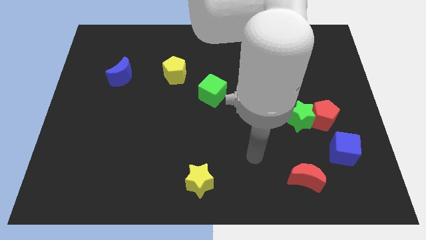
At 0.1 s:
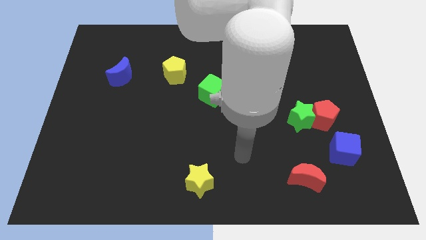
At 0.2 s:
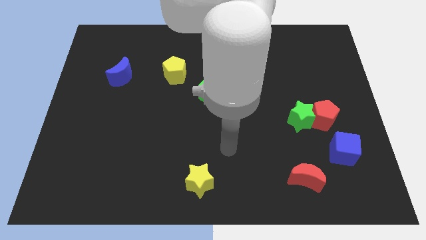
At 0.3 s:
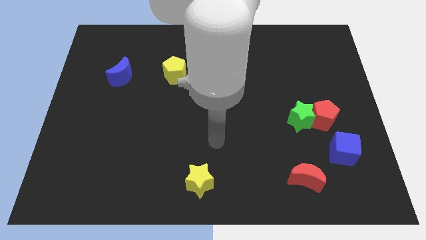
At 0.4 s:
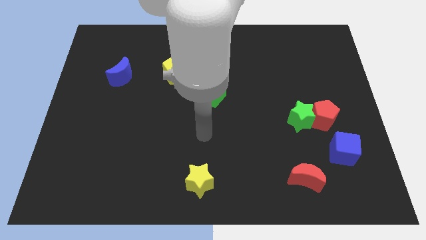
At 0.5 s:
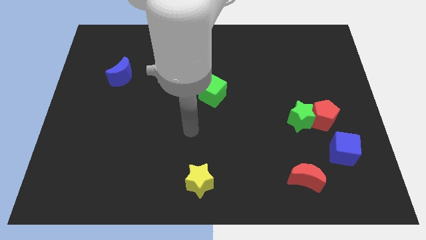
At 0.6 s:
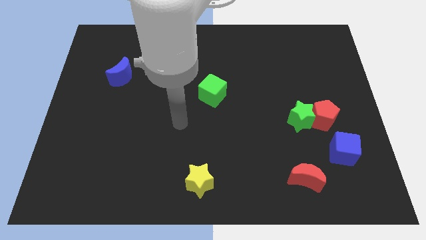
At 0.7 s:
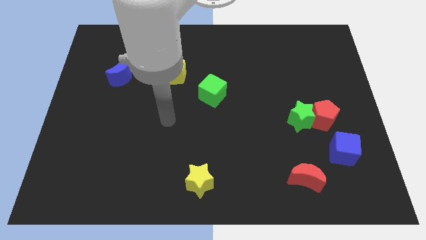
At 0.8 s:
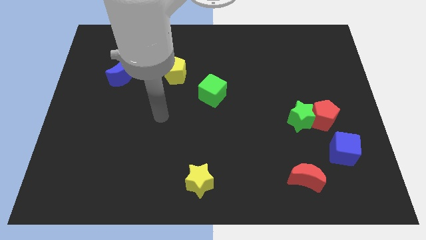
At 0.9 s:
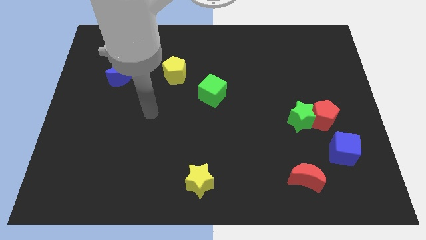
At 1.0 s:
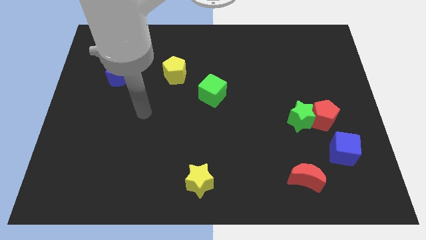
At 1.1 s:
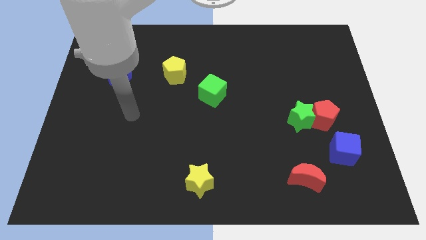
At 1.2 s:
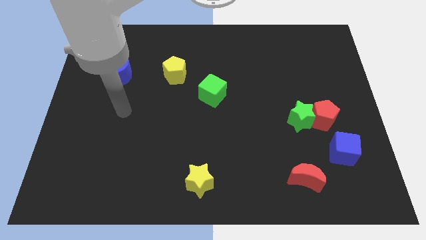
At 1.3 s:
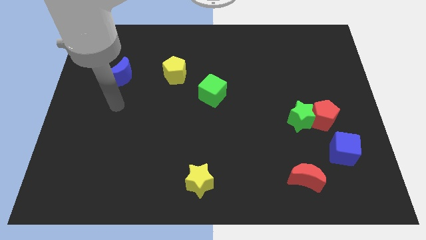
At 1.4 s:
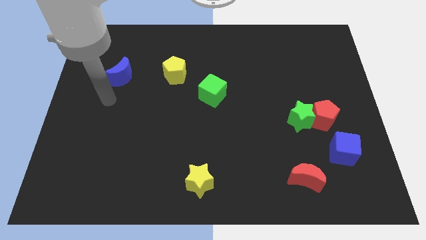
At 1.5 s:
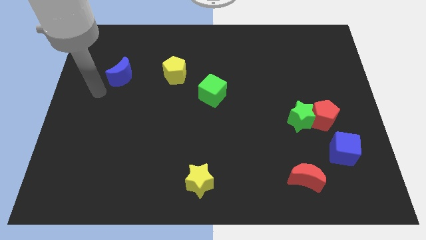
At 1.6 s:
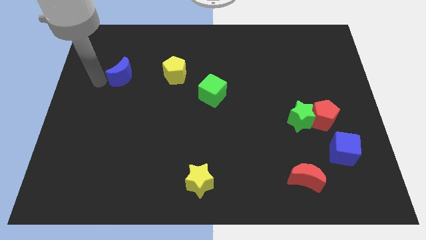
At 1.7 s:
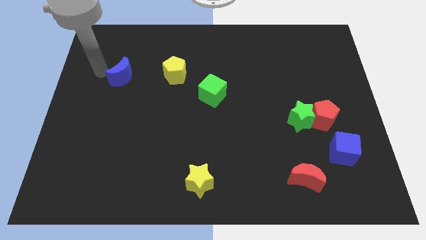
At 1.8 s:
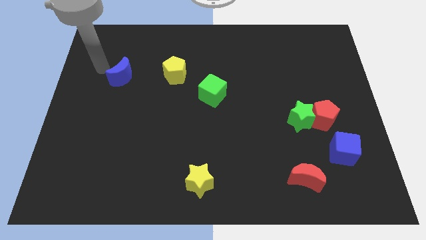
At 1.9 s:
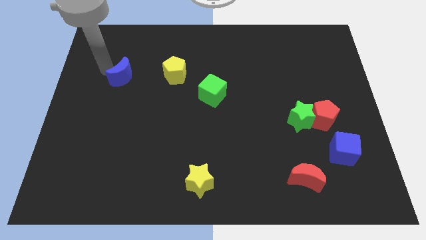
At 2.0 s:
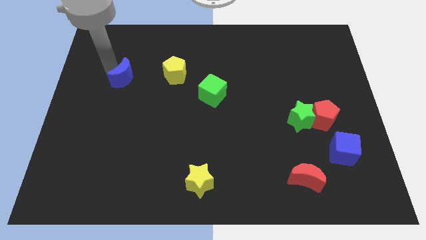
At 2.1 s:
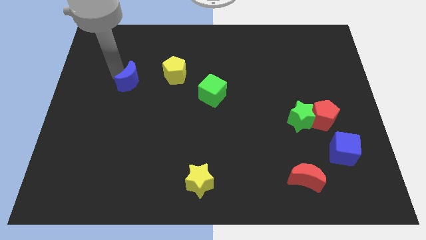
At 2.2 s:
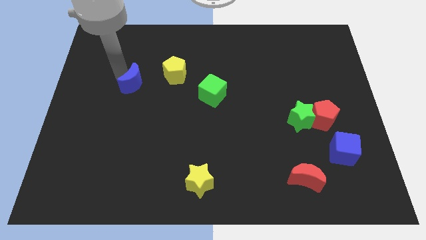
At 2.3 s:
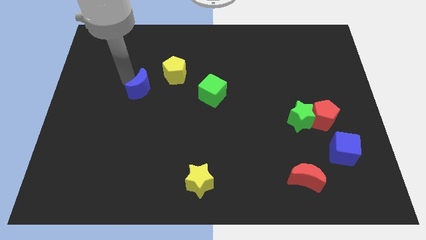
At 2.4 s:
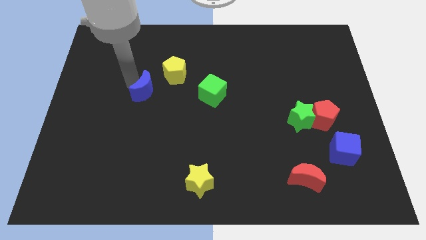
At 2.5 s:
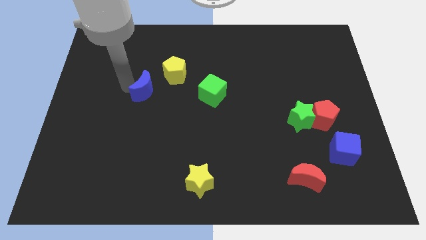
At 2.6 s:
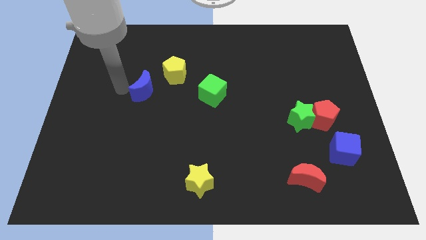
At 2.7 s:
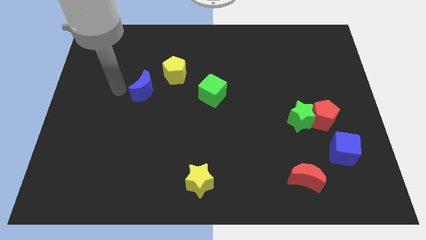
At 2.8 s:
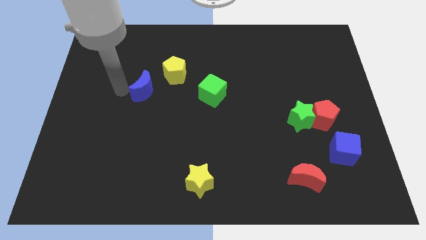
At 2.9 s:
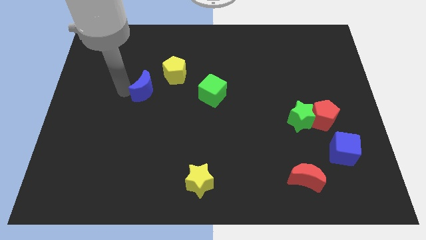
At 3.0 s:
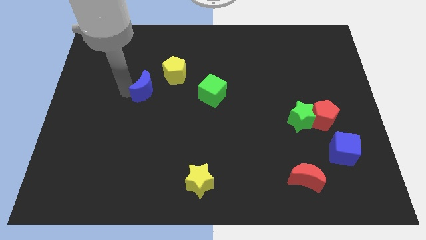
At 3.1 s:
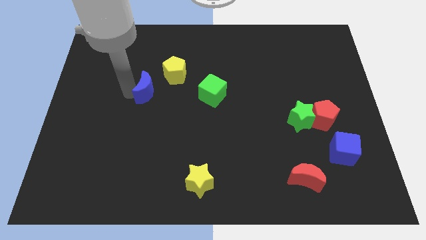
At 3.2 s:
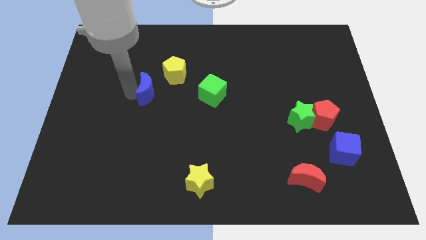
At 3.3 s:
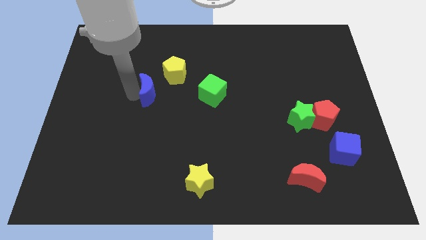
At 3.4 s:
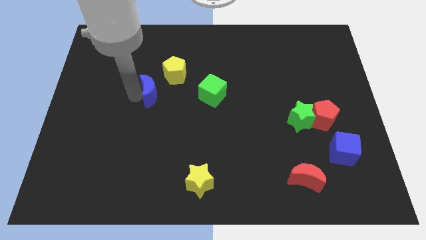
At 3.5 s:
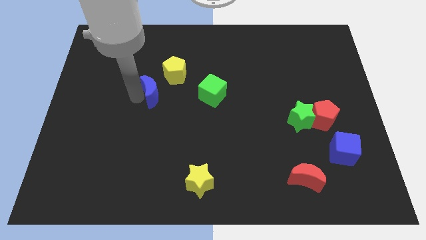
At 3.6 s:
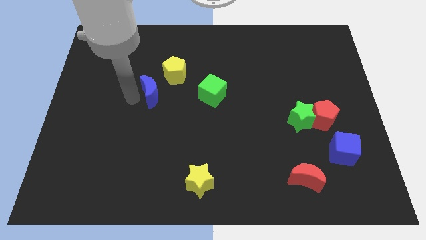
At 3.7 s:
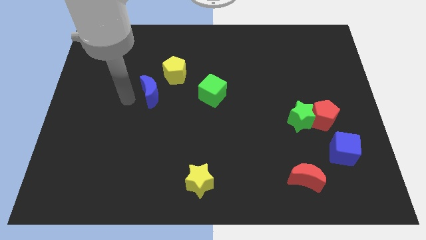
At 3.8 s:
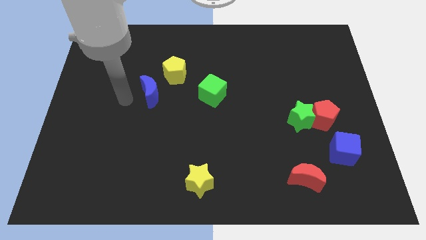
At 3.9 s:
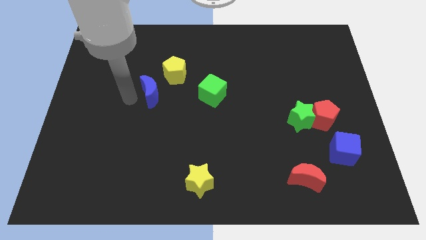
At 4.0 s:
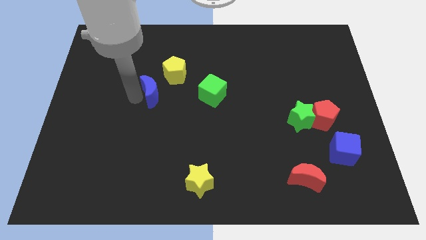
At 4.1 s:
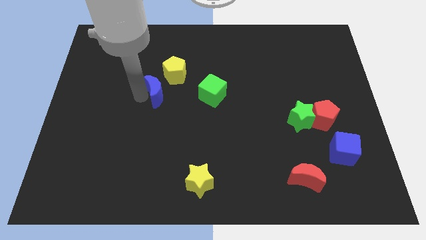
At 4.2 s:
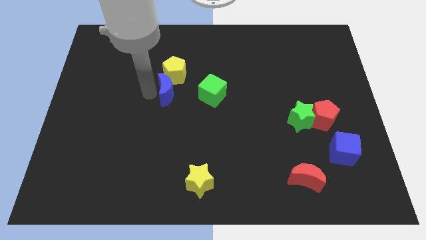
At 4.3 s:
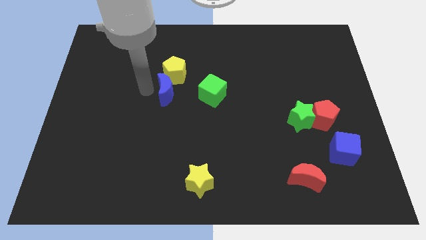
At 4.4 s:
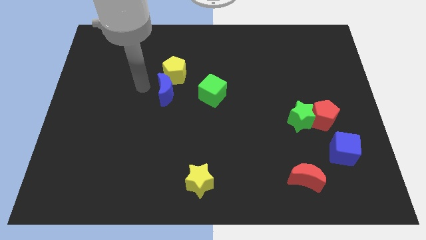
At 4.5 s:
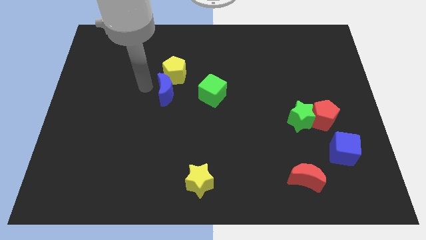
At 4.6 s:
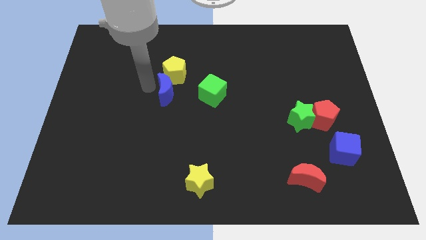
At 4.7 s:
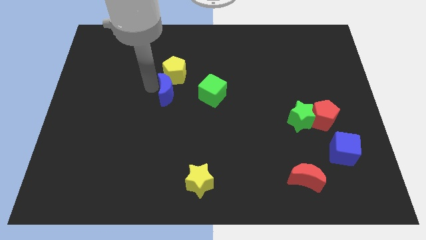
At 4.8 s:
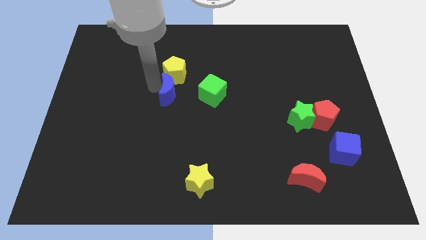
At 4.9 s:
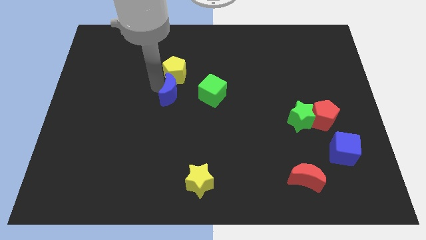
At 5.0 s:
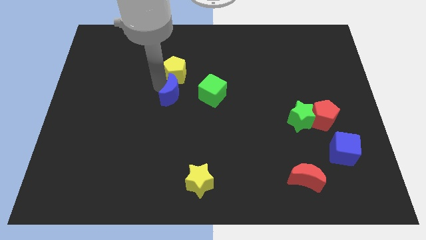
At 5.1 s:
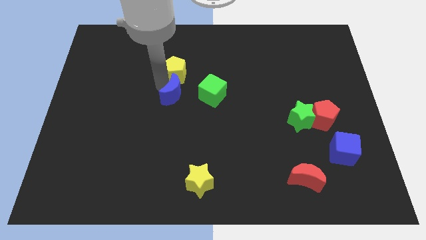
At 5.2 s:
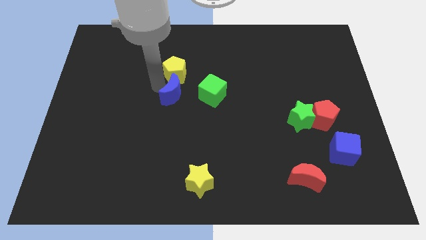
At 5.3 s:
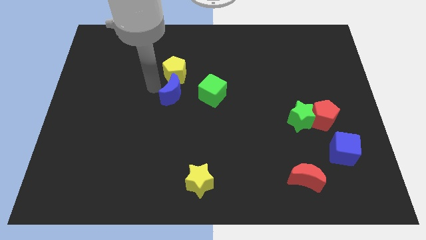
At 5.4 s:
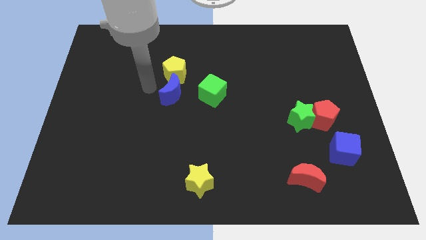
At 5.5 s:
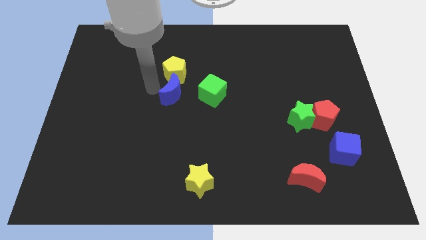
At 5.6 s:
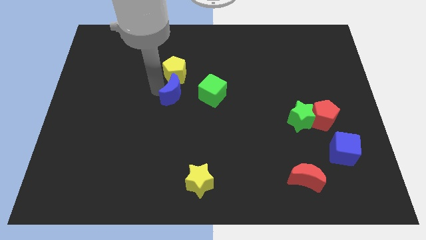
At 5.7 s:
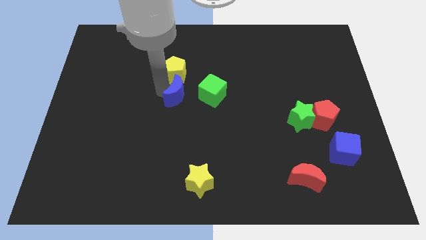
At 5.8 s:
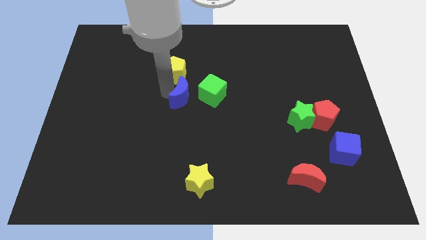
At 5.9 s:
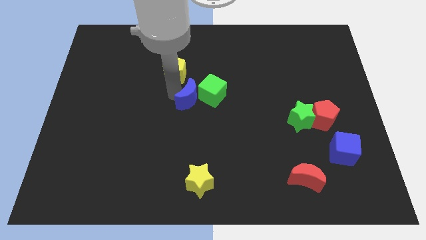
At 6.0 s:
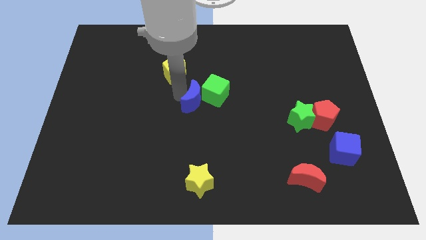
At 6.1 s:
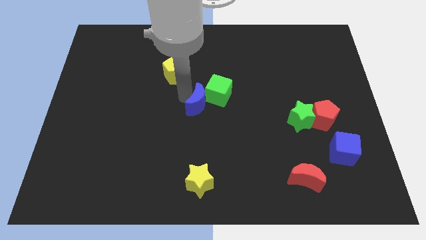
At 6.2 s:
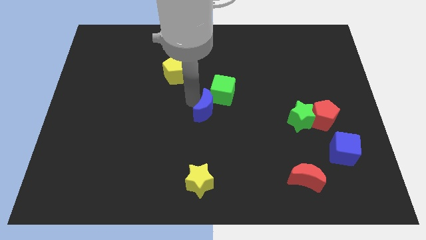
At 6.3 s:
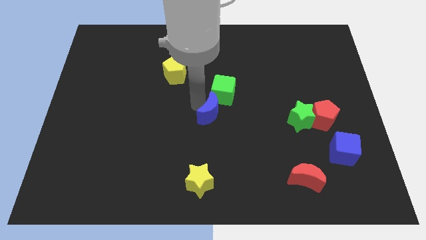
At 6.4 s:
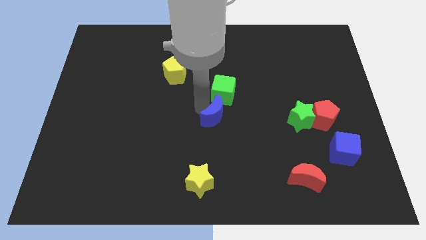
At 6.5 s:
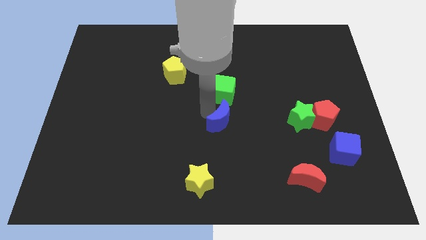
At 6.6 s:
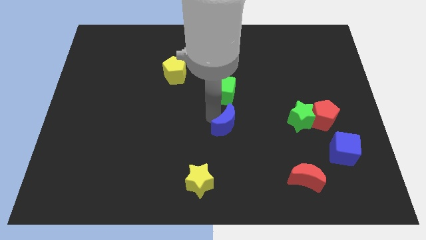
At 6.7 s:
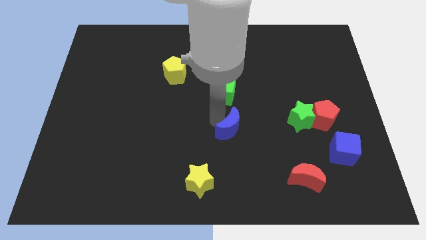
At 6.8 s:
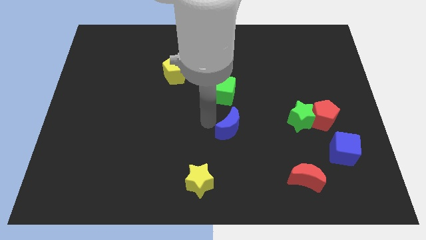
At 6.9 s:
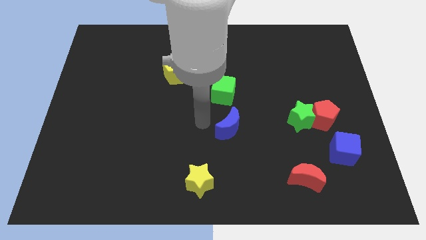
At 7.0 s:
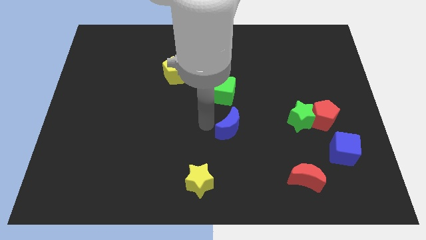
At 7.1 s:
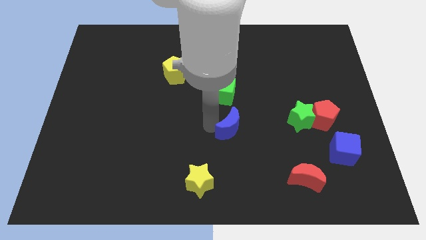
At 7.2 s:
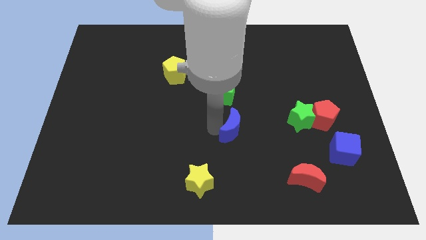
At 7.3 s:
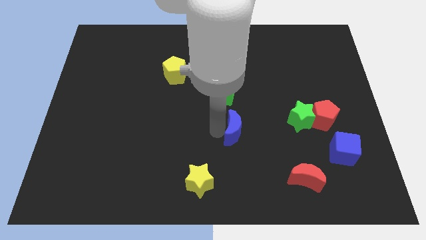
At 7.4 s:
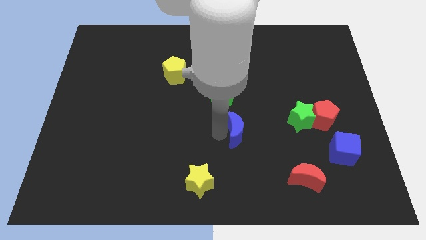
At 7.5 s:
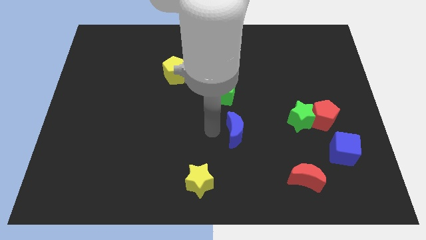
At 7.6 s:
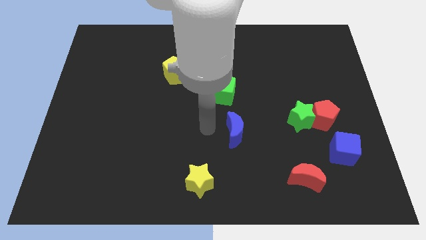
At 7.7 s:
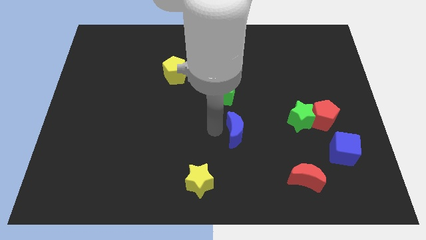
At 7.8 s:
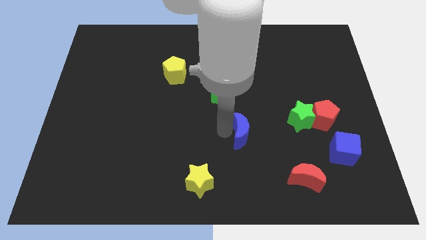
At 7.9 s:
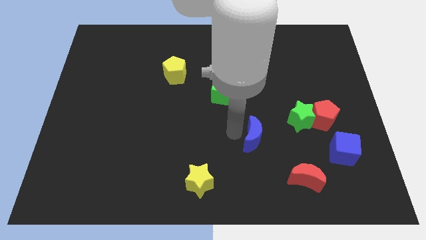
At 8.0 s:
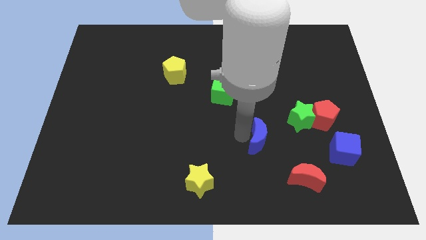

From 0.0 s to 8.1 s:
slide the blue moon to the bottom left of the green star

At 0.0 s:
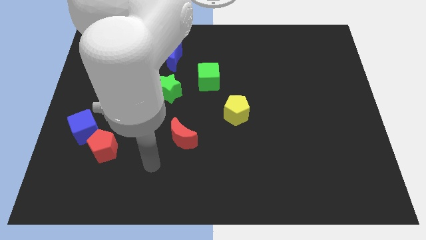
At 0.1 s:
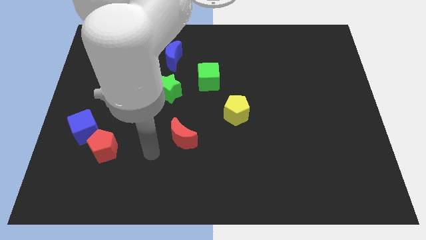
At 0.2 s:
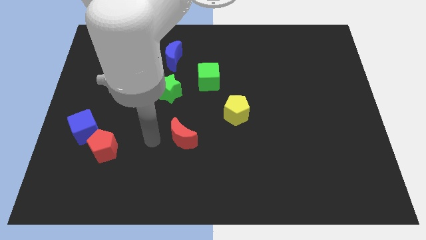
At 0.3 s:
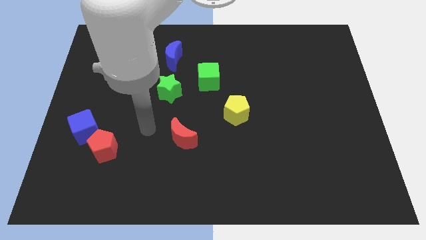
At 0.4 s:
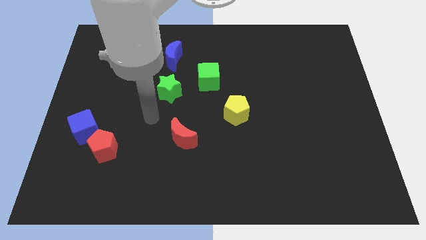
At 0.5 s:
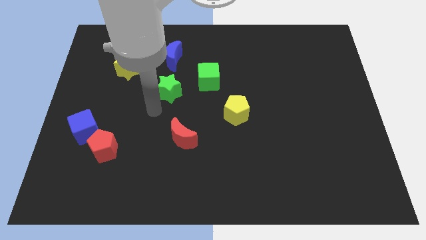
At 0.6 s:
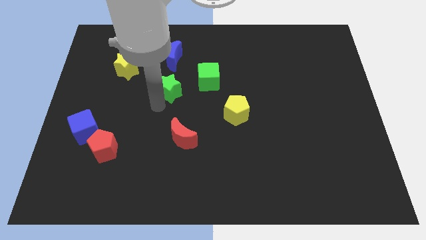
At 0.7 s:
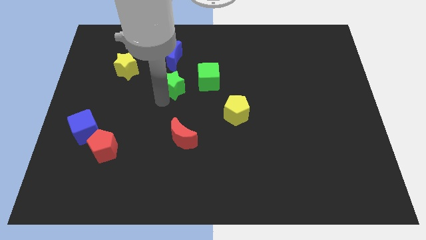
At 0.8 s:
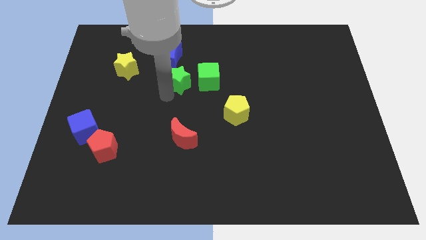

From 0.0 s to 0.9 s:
put the green star to the bottom right of the blue moon
